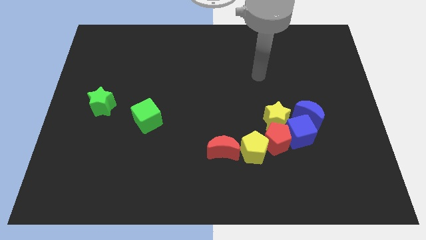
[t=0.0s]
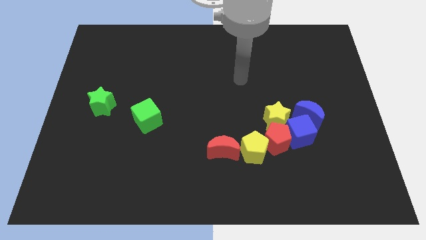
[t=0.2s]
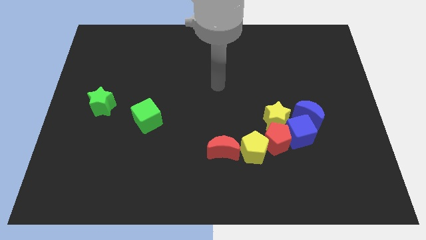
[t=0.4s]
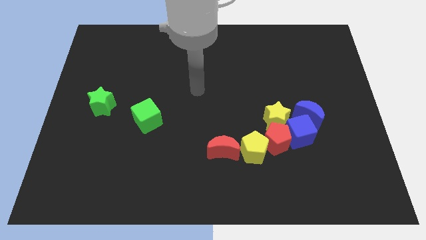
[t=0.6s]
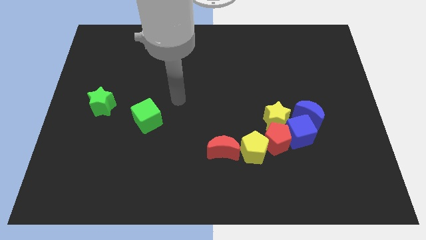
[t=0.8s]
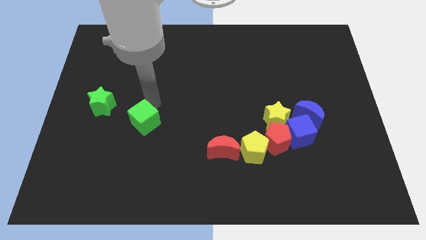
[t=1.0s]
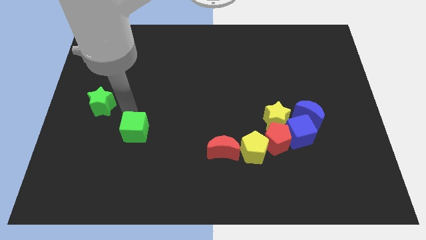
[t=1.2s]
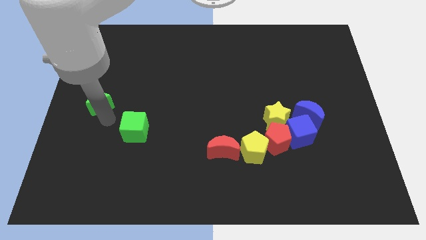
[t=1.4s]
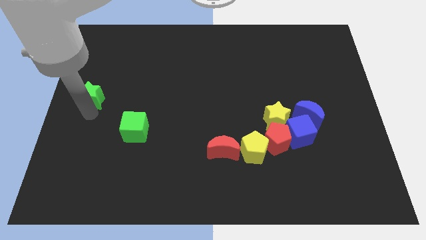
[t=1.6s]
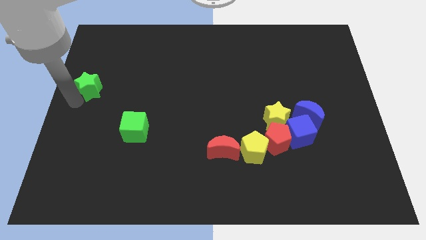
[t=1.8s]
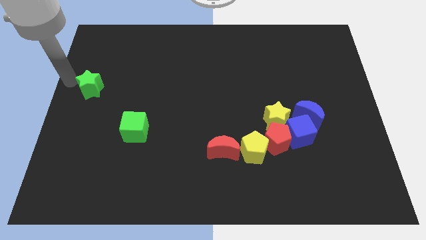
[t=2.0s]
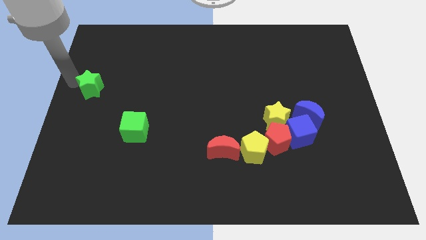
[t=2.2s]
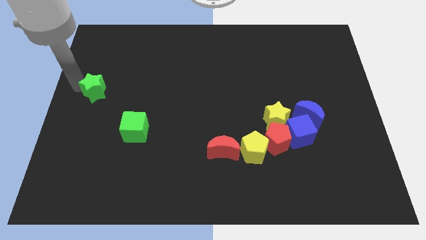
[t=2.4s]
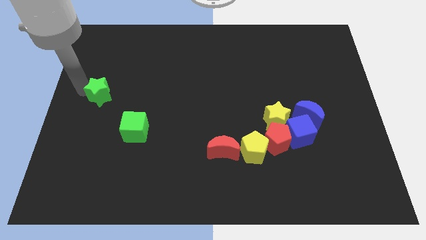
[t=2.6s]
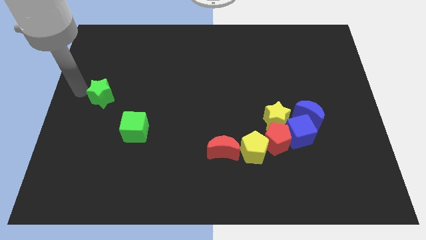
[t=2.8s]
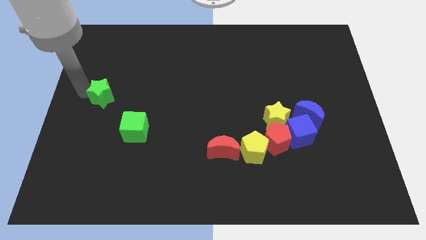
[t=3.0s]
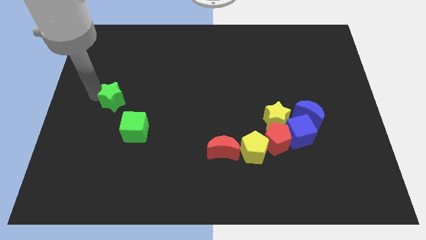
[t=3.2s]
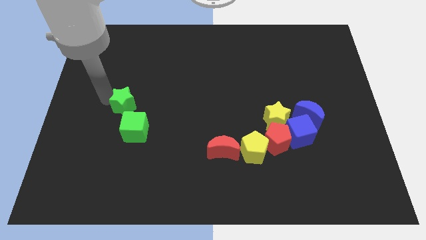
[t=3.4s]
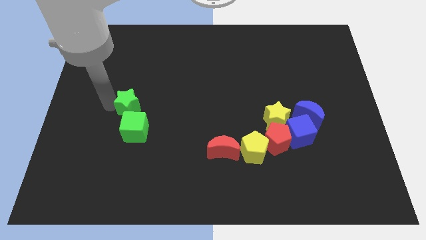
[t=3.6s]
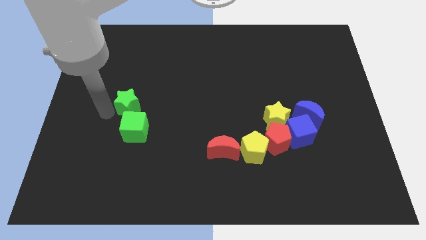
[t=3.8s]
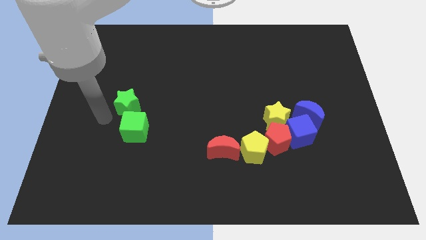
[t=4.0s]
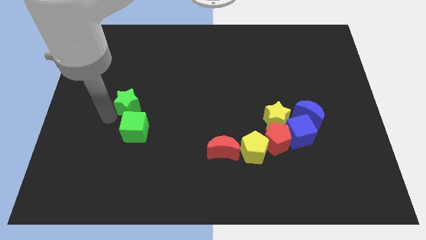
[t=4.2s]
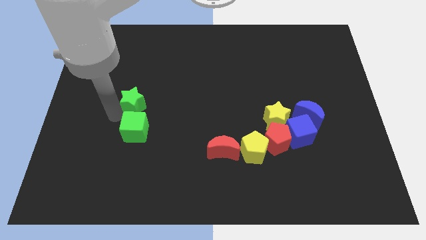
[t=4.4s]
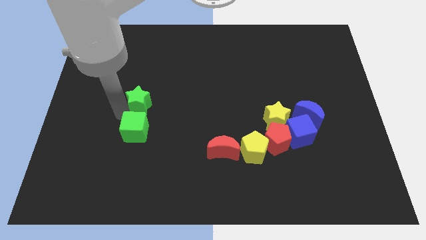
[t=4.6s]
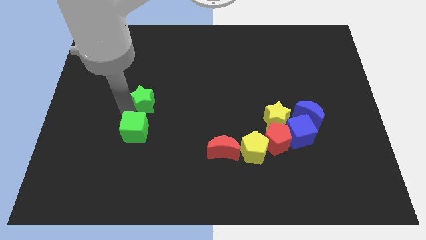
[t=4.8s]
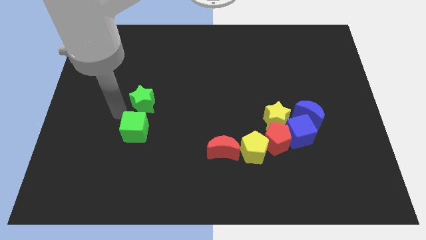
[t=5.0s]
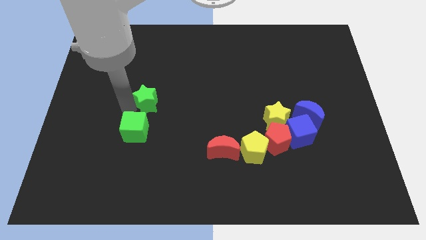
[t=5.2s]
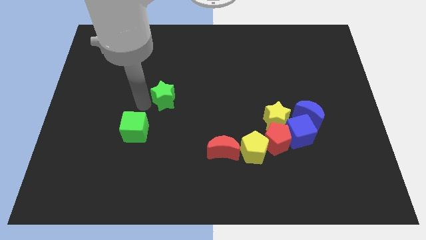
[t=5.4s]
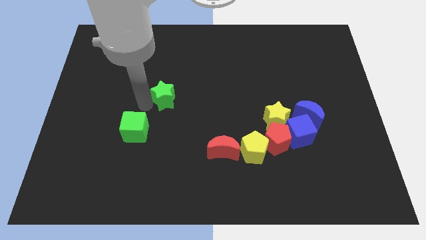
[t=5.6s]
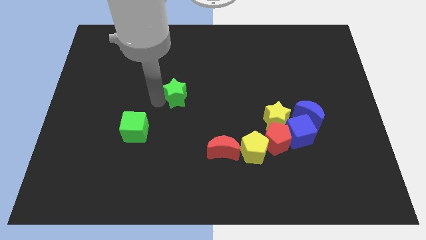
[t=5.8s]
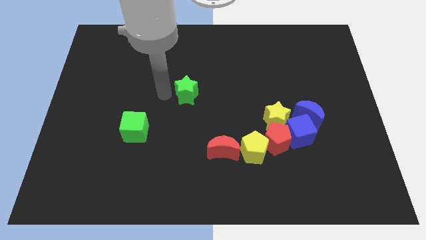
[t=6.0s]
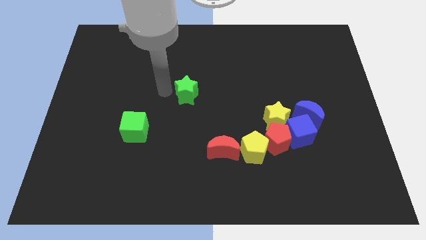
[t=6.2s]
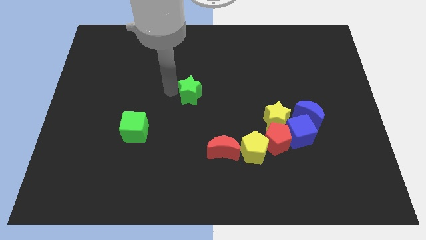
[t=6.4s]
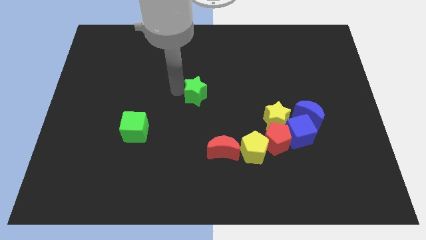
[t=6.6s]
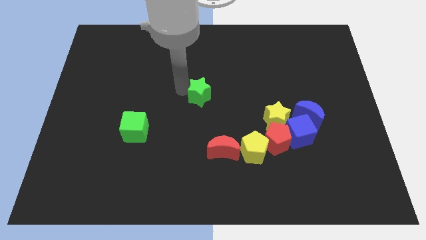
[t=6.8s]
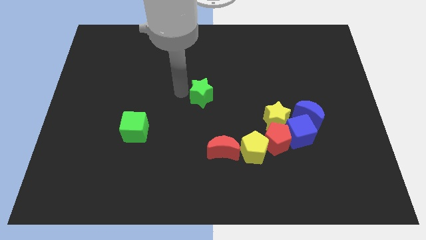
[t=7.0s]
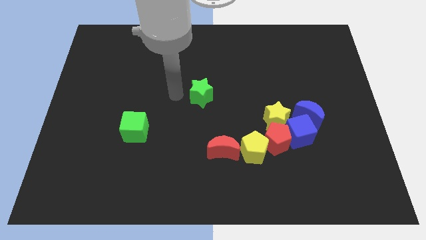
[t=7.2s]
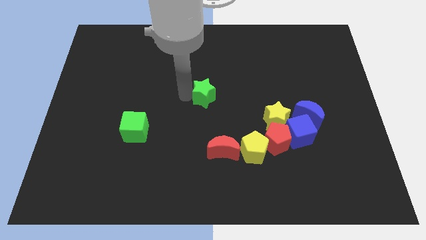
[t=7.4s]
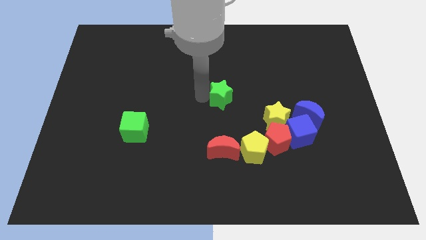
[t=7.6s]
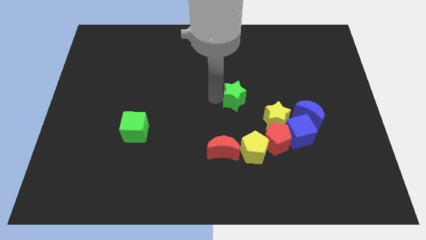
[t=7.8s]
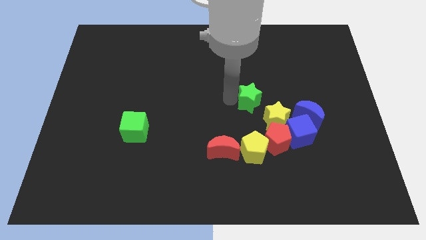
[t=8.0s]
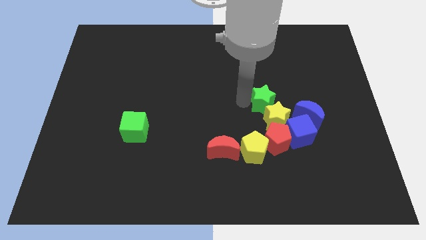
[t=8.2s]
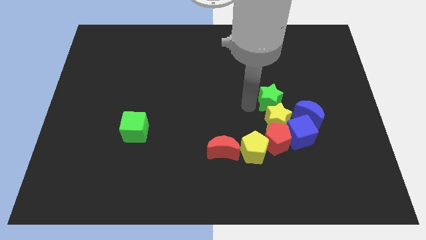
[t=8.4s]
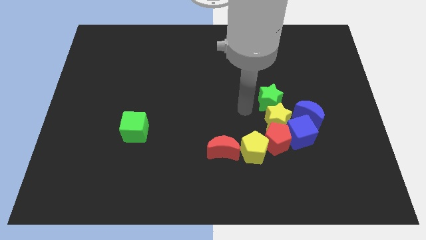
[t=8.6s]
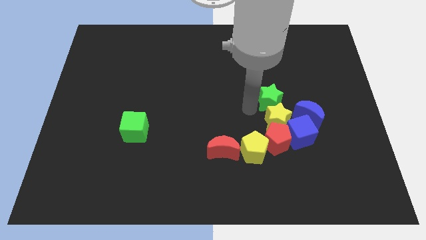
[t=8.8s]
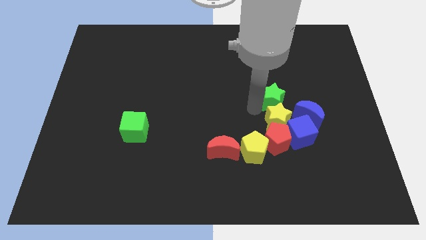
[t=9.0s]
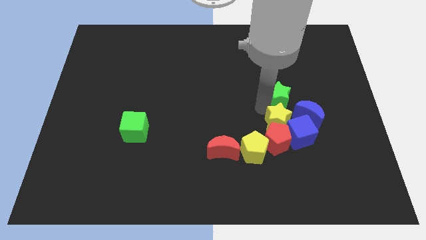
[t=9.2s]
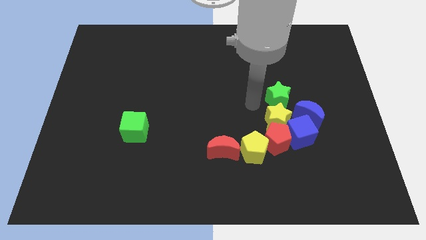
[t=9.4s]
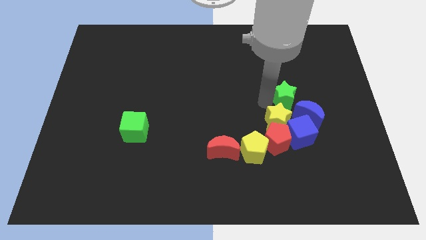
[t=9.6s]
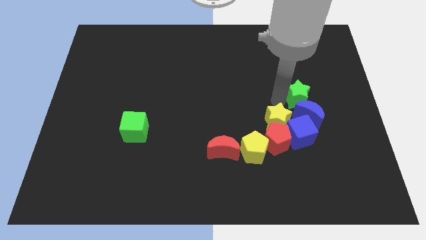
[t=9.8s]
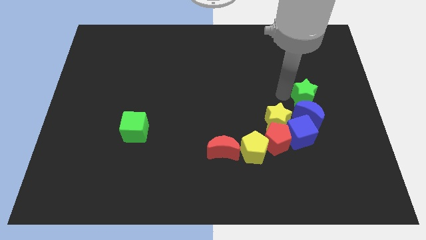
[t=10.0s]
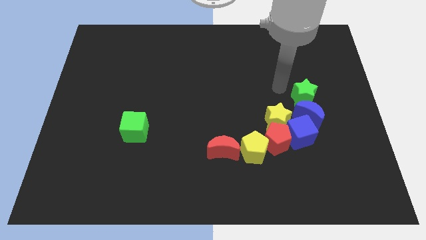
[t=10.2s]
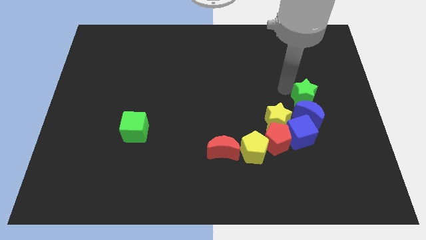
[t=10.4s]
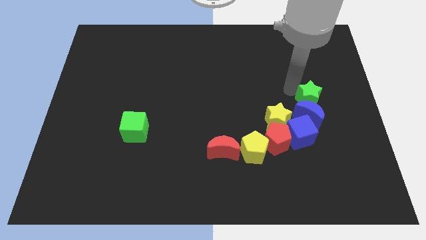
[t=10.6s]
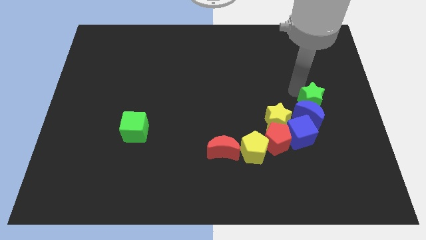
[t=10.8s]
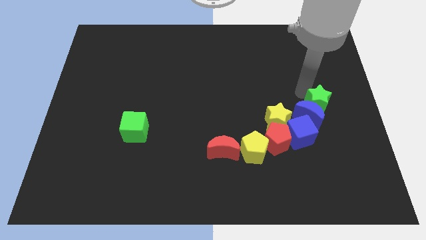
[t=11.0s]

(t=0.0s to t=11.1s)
move the green star to the right side
